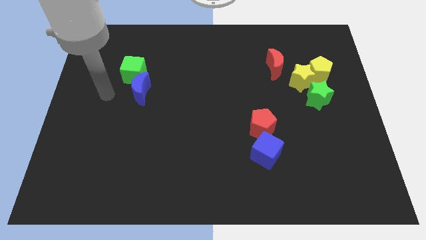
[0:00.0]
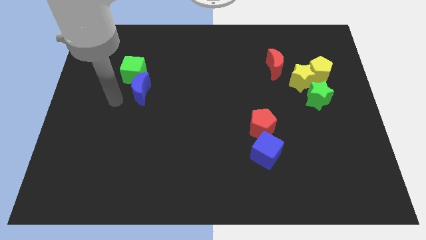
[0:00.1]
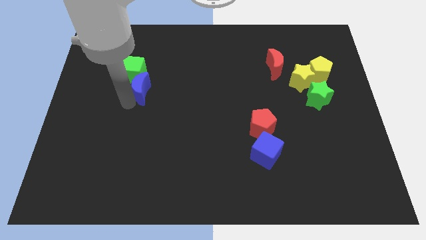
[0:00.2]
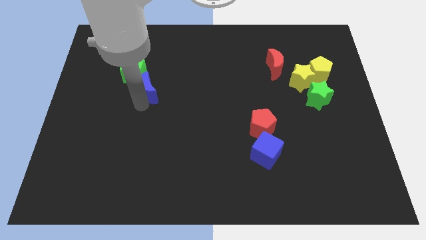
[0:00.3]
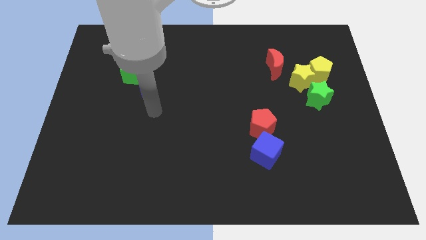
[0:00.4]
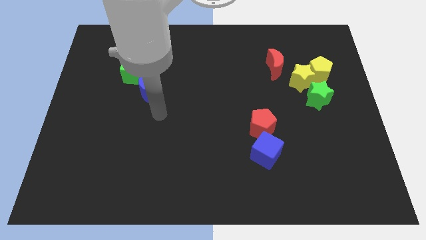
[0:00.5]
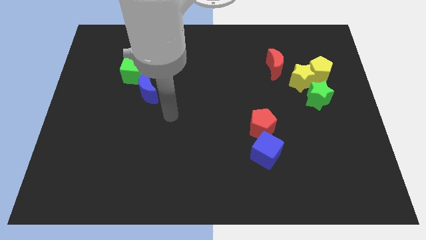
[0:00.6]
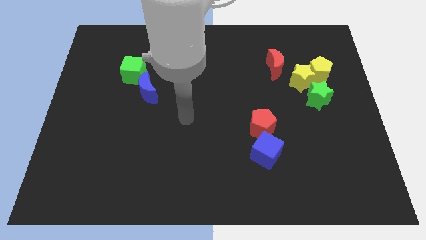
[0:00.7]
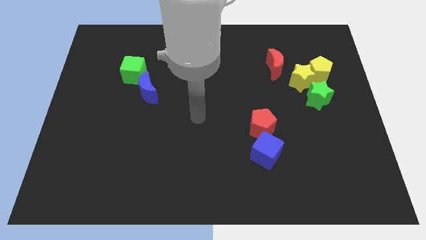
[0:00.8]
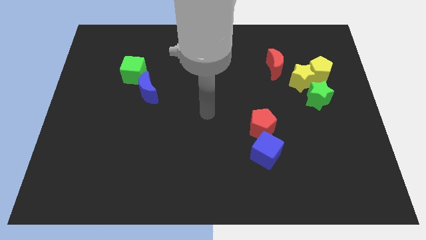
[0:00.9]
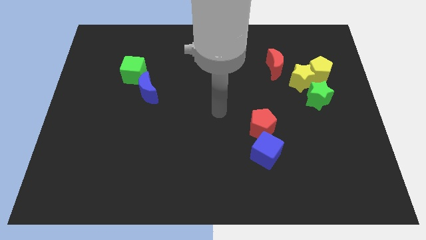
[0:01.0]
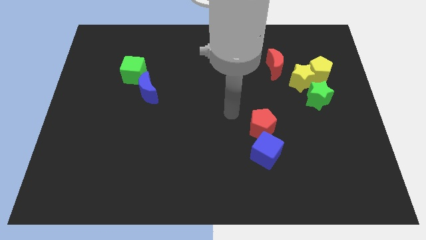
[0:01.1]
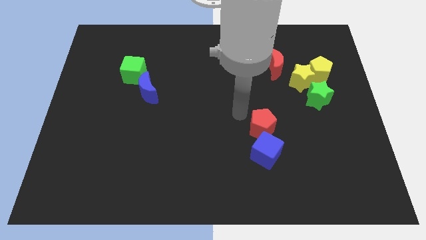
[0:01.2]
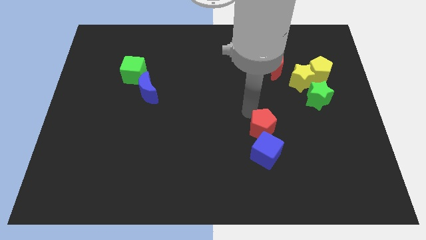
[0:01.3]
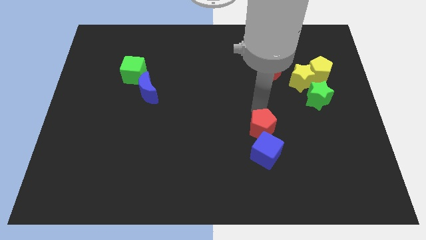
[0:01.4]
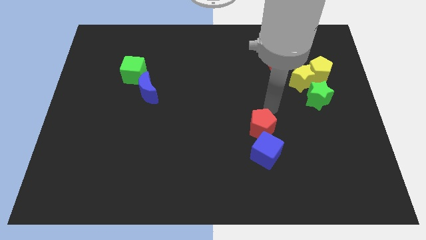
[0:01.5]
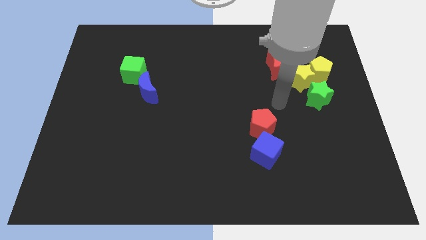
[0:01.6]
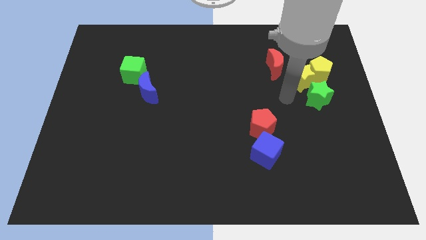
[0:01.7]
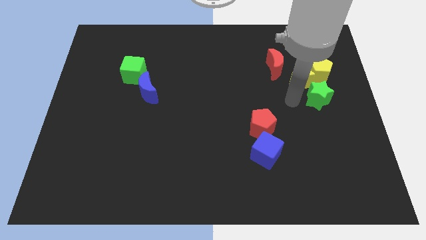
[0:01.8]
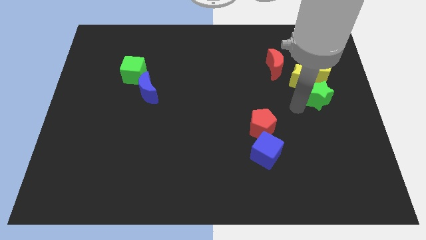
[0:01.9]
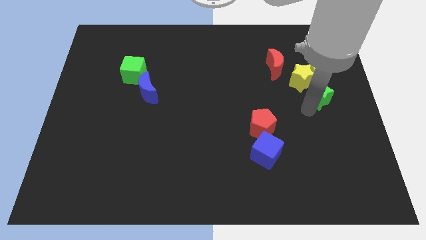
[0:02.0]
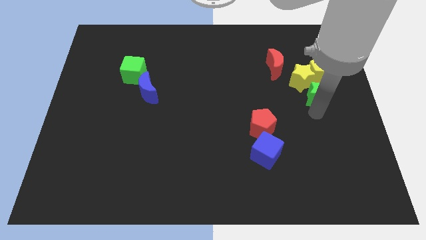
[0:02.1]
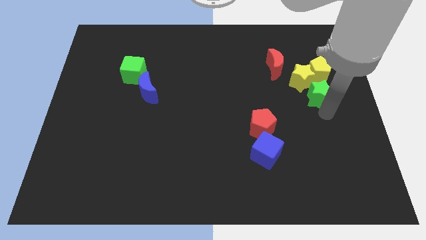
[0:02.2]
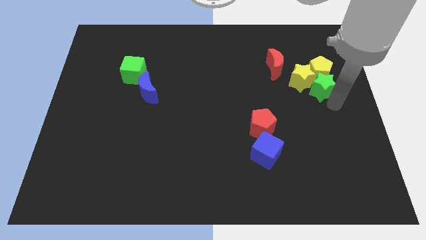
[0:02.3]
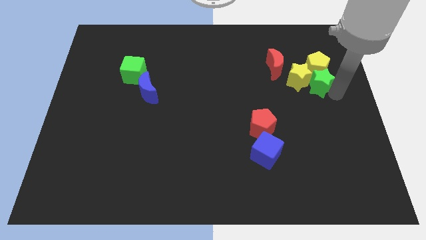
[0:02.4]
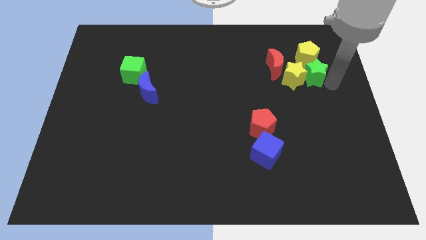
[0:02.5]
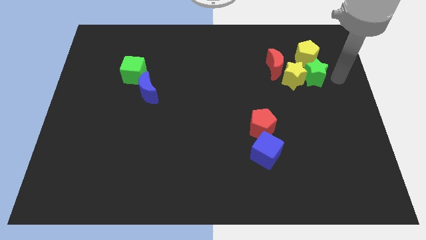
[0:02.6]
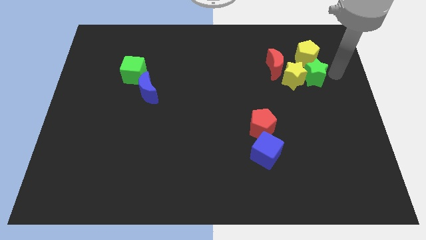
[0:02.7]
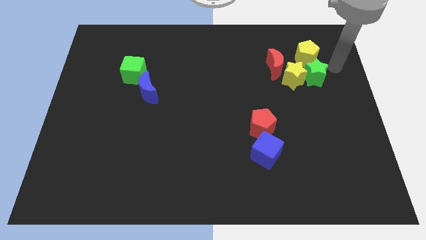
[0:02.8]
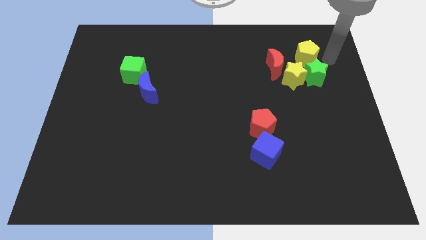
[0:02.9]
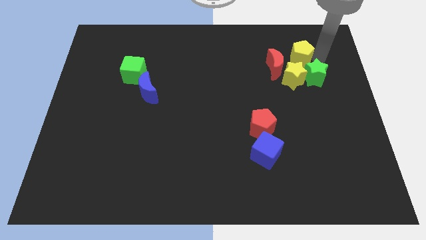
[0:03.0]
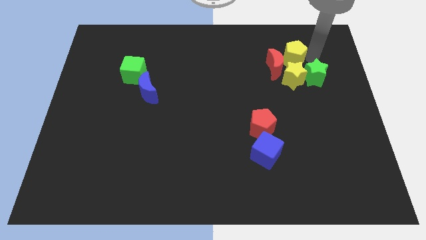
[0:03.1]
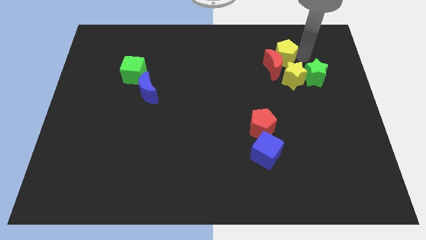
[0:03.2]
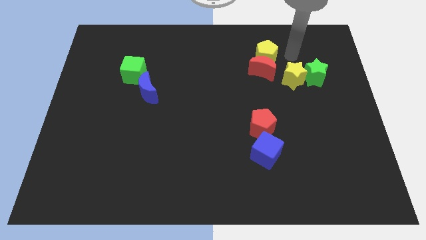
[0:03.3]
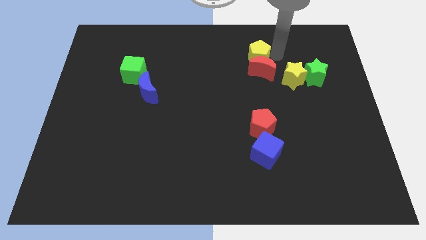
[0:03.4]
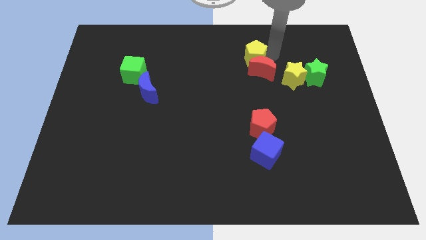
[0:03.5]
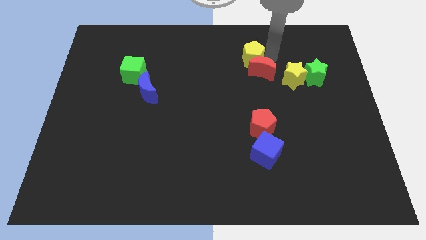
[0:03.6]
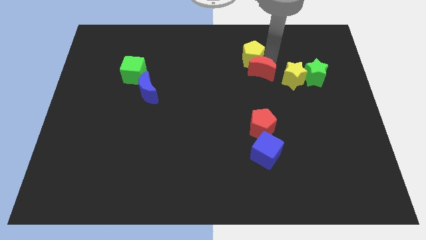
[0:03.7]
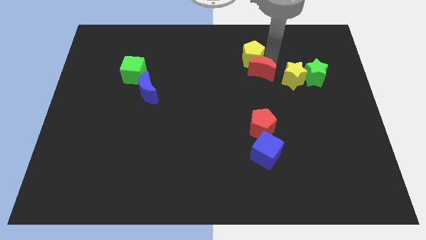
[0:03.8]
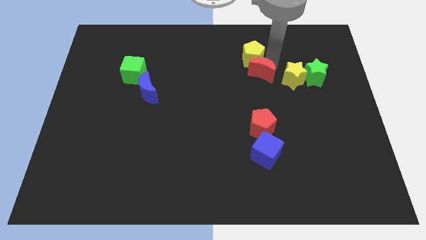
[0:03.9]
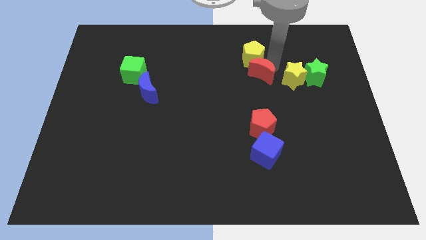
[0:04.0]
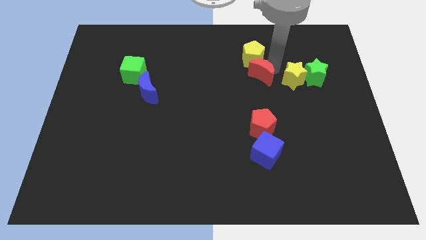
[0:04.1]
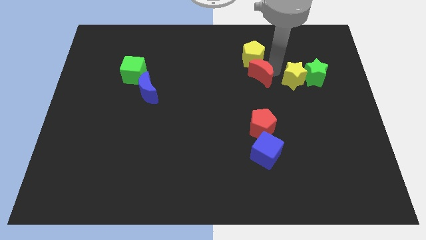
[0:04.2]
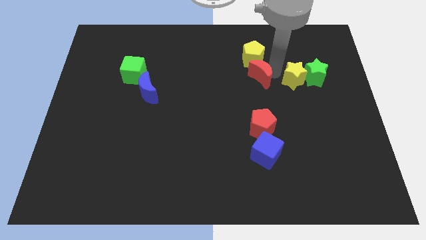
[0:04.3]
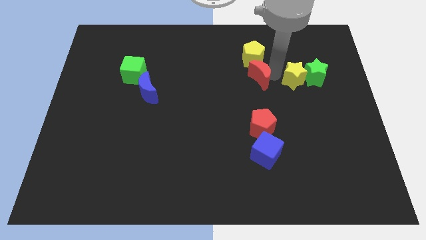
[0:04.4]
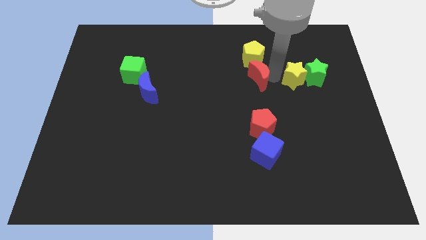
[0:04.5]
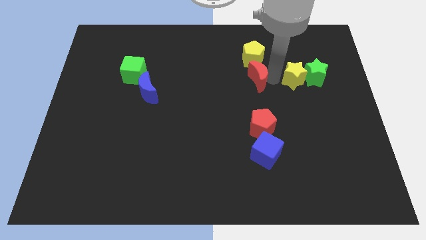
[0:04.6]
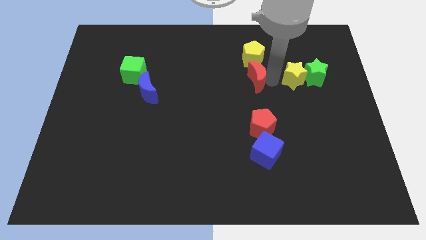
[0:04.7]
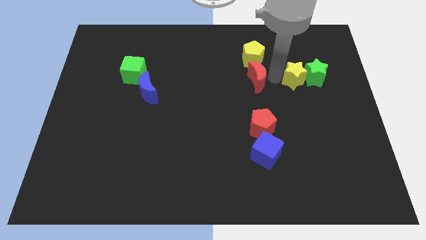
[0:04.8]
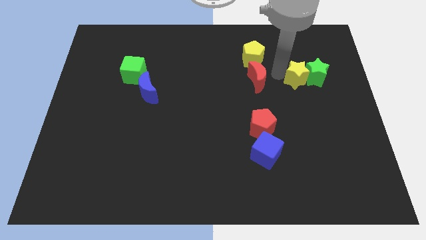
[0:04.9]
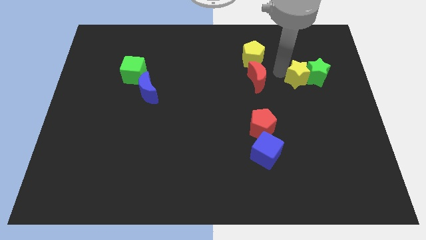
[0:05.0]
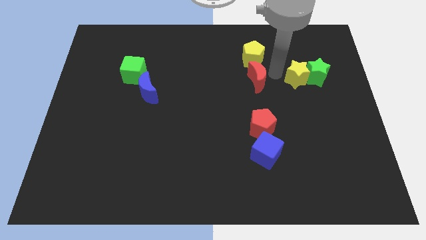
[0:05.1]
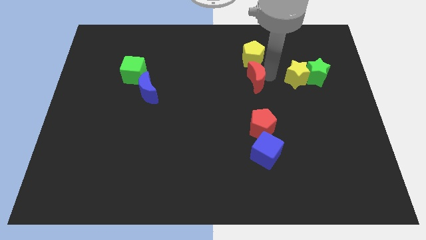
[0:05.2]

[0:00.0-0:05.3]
move the red moon downwards and then left a little

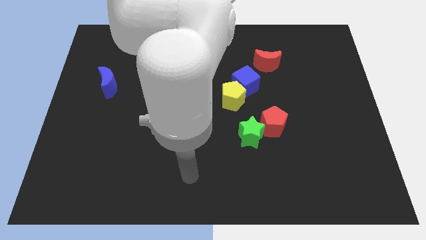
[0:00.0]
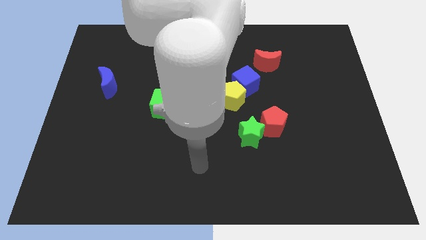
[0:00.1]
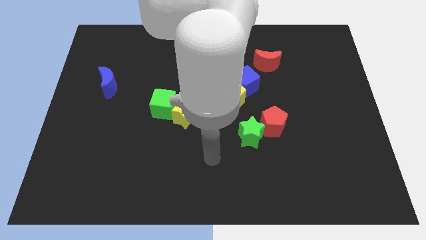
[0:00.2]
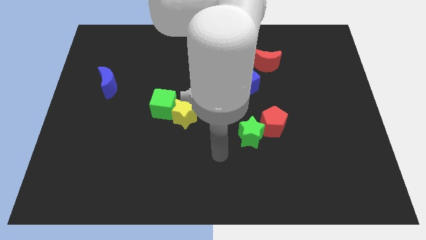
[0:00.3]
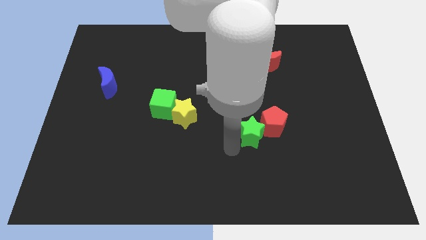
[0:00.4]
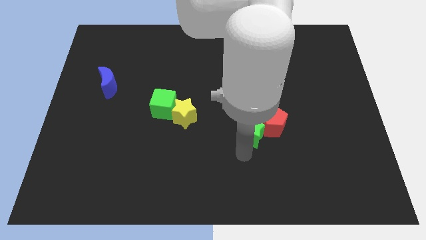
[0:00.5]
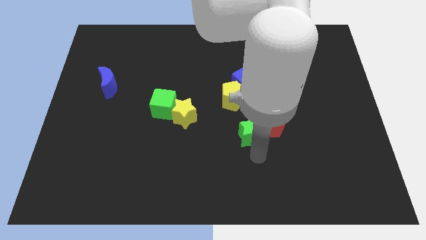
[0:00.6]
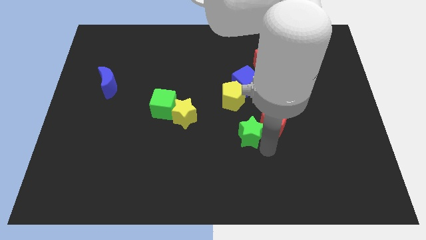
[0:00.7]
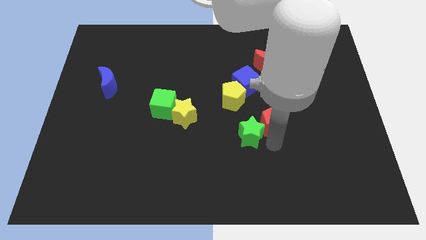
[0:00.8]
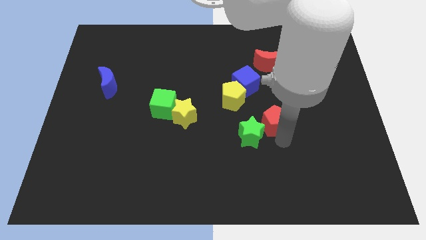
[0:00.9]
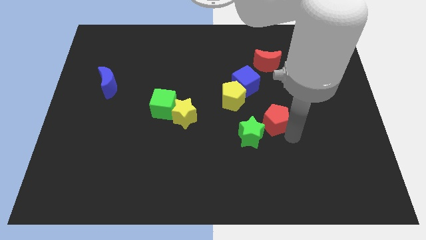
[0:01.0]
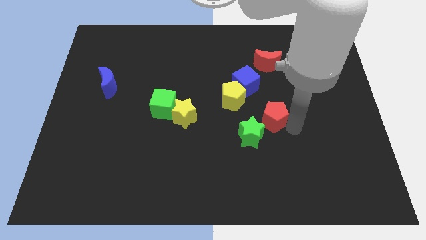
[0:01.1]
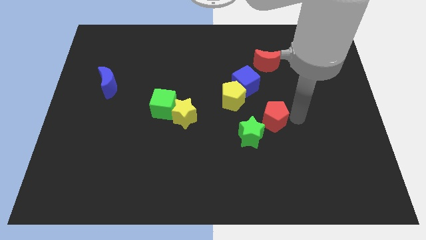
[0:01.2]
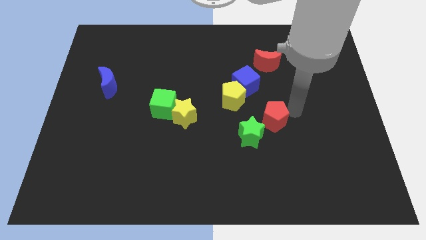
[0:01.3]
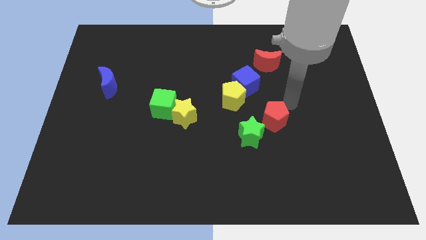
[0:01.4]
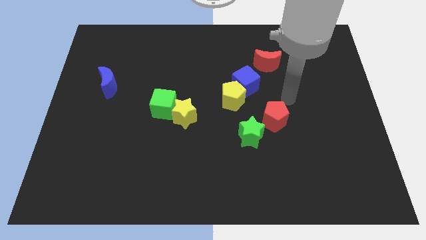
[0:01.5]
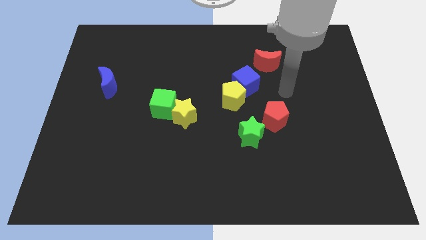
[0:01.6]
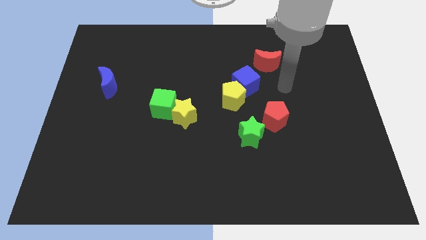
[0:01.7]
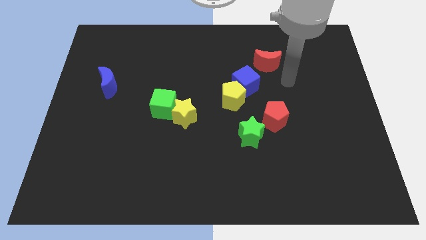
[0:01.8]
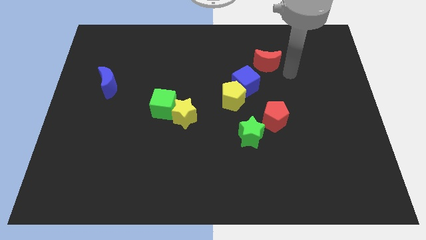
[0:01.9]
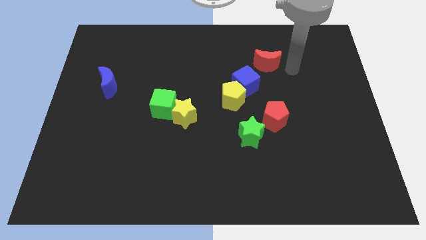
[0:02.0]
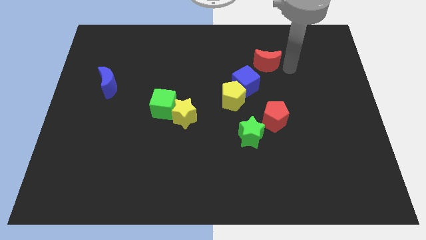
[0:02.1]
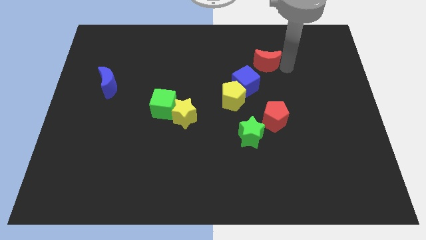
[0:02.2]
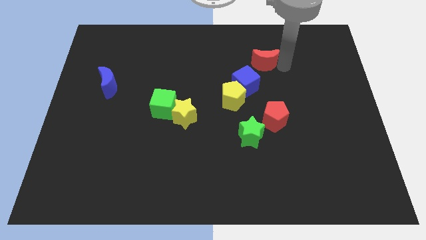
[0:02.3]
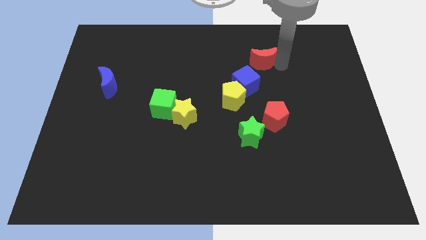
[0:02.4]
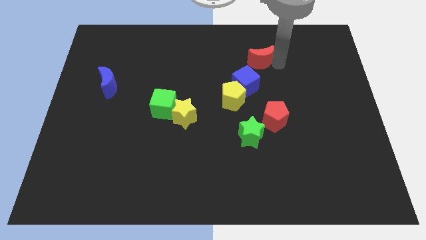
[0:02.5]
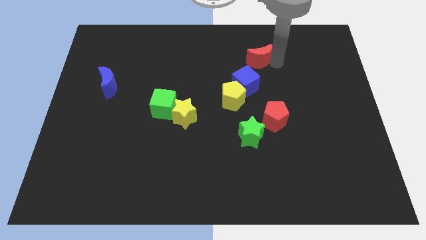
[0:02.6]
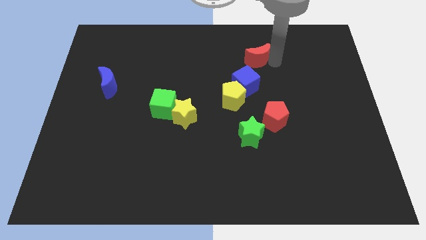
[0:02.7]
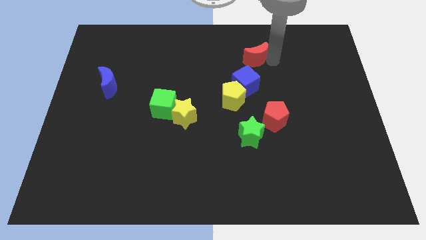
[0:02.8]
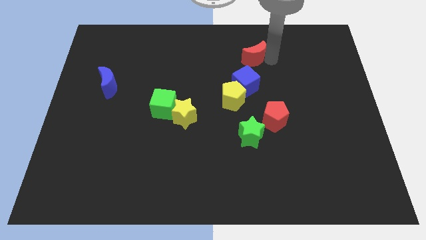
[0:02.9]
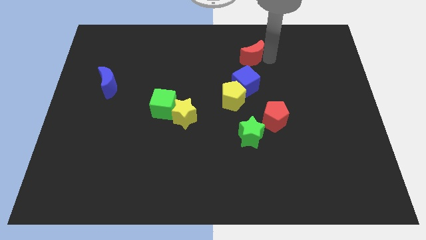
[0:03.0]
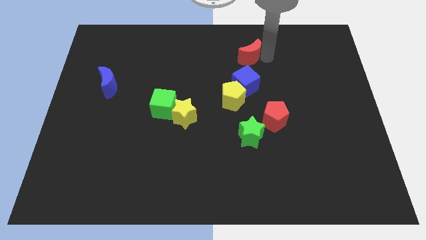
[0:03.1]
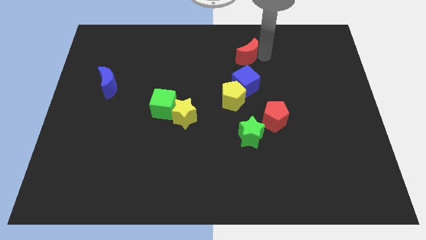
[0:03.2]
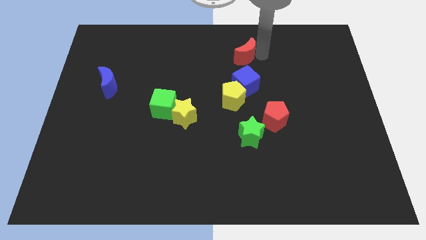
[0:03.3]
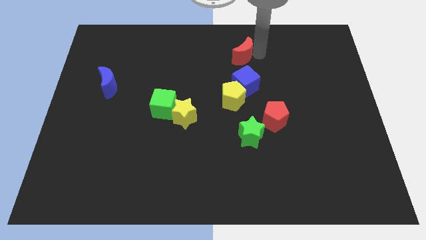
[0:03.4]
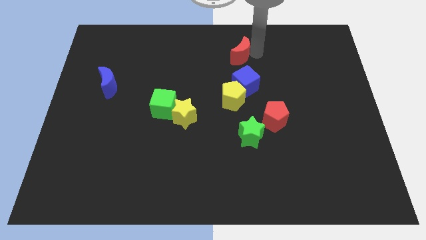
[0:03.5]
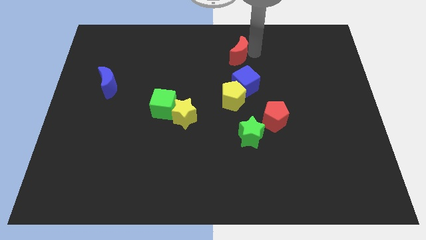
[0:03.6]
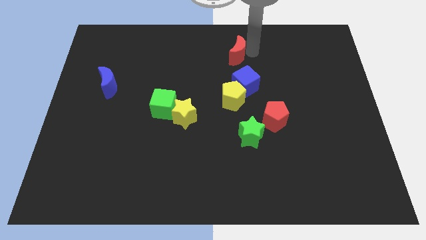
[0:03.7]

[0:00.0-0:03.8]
move the red moon to the left a little
